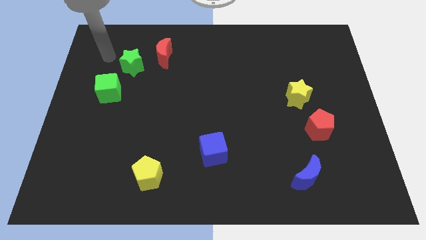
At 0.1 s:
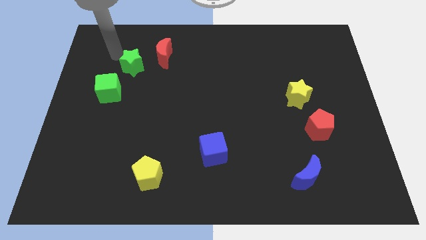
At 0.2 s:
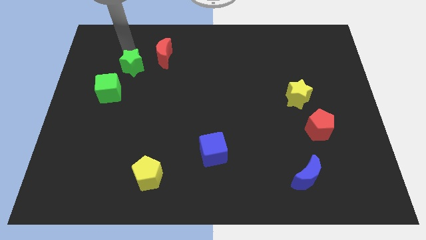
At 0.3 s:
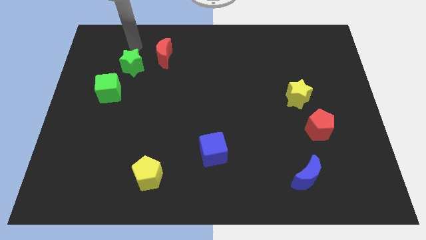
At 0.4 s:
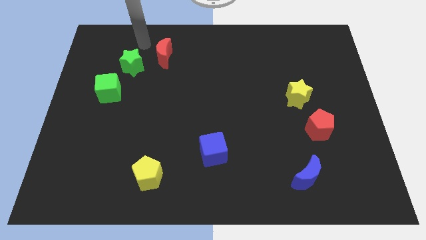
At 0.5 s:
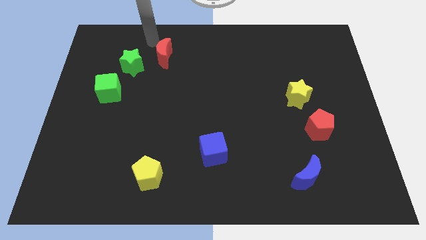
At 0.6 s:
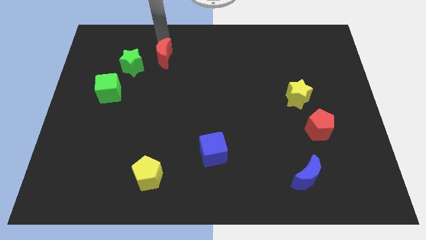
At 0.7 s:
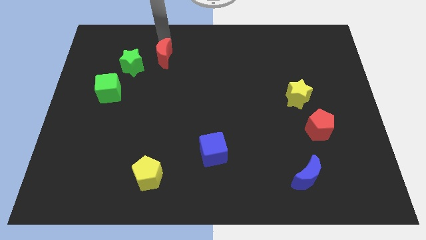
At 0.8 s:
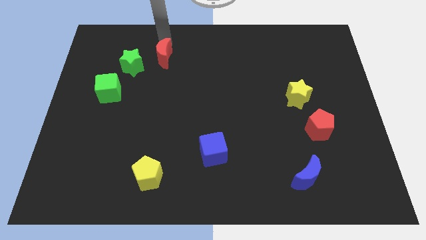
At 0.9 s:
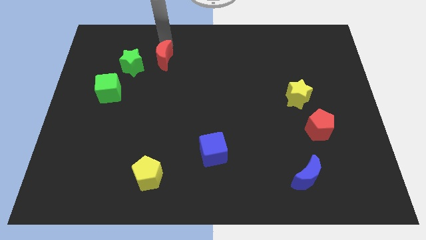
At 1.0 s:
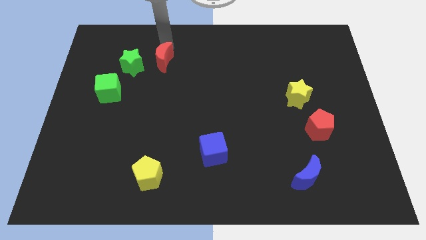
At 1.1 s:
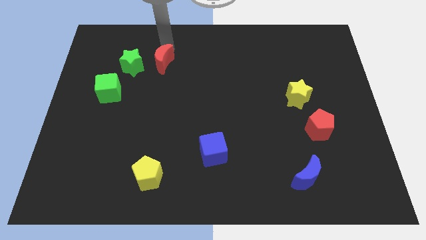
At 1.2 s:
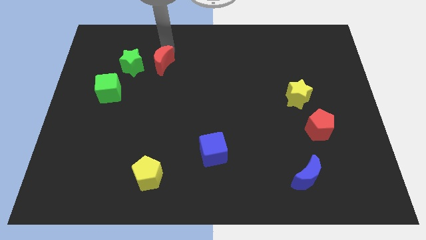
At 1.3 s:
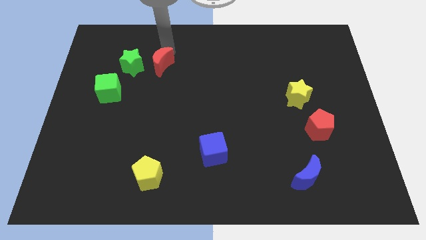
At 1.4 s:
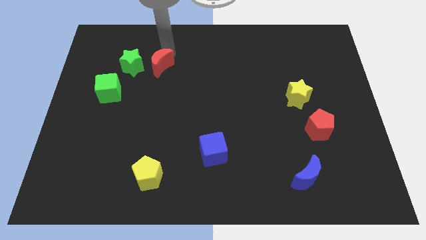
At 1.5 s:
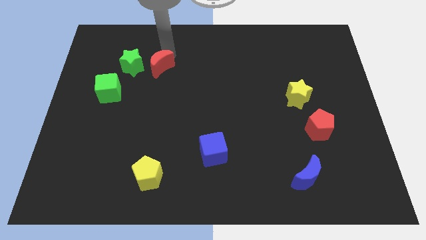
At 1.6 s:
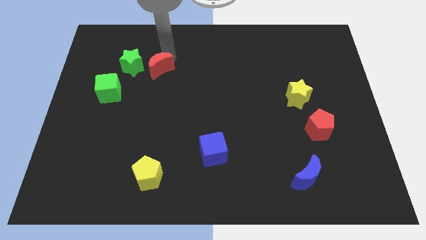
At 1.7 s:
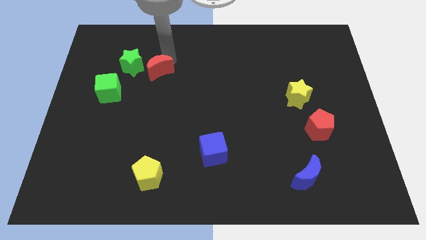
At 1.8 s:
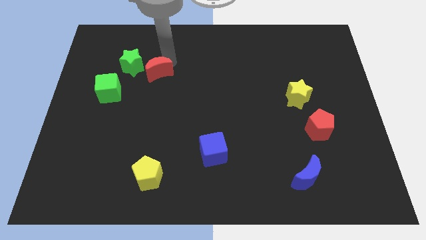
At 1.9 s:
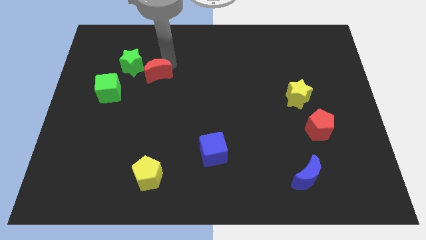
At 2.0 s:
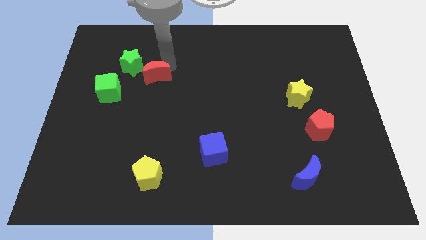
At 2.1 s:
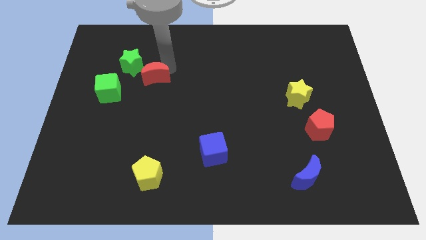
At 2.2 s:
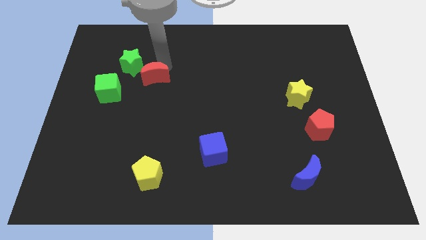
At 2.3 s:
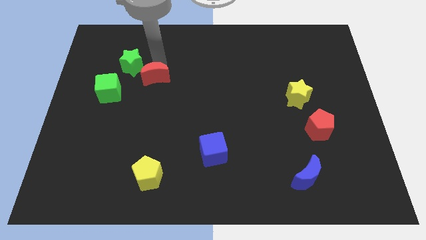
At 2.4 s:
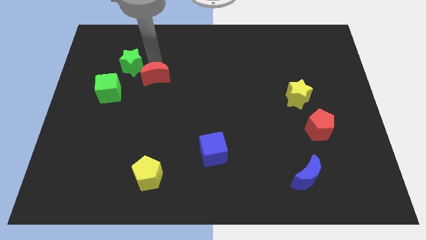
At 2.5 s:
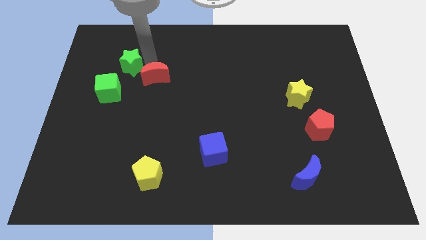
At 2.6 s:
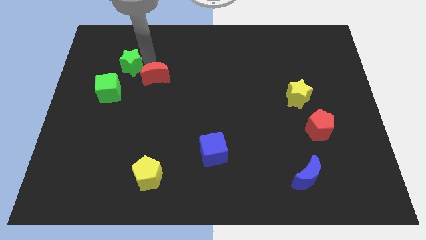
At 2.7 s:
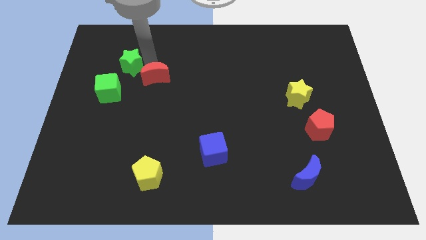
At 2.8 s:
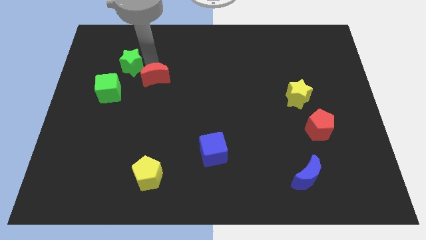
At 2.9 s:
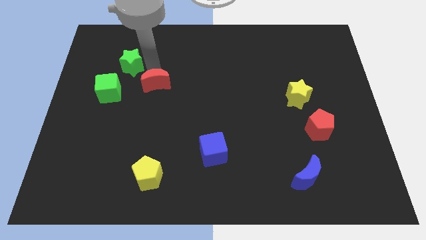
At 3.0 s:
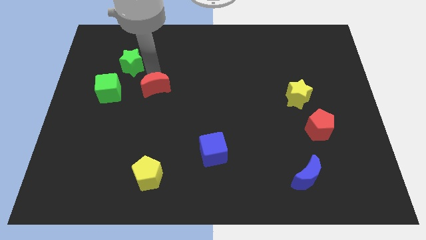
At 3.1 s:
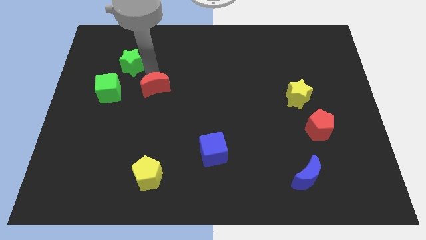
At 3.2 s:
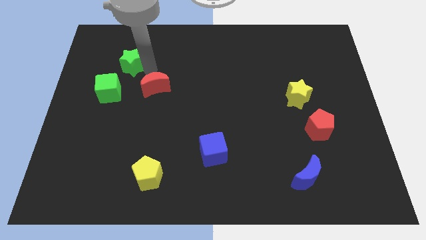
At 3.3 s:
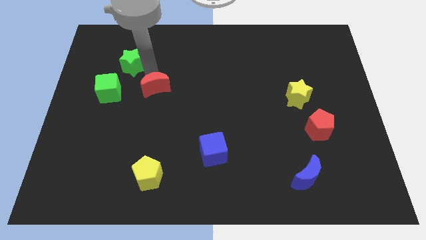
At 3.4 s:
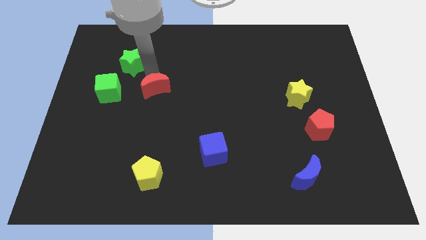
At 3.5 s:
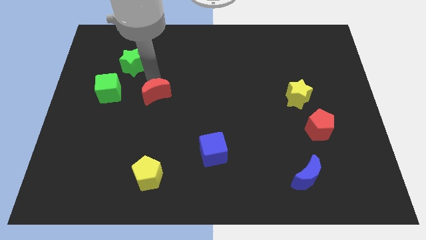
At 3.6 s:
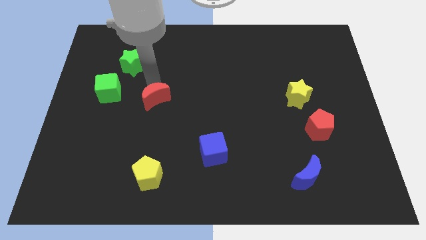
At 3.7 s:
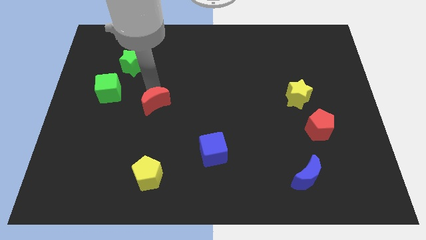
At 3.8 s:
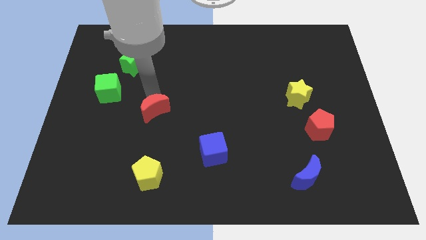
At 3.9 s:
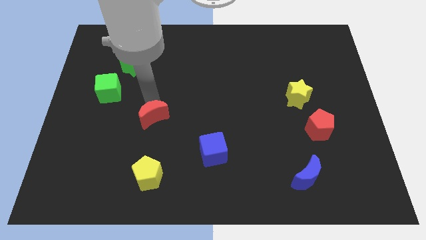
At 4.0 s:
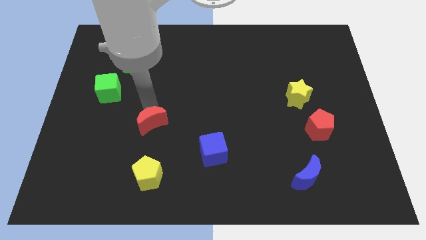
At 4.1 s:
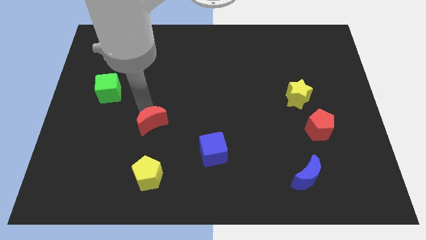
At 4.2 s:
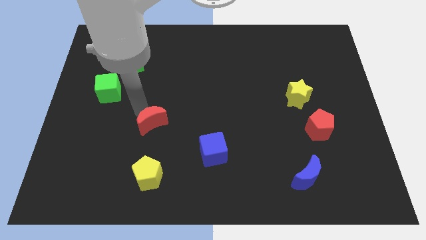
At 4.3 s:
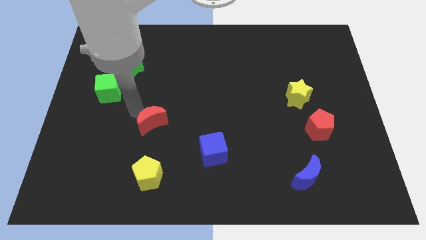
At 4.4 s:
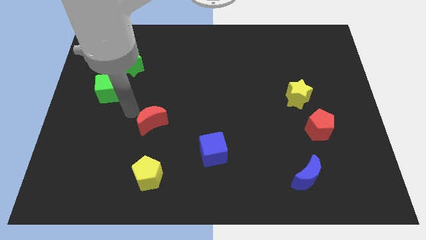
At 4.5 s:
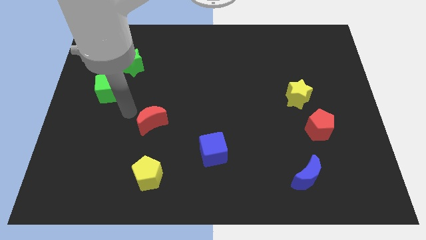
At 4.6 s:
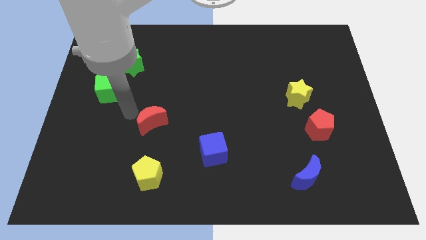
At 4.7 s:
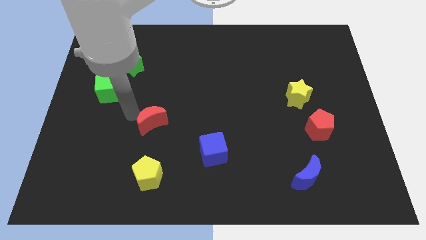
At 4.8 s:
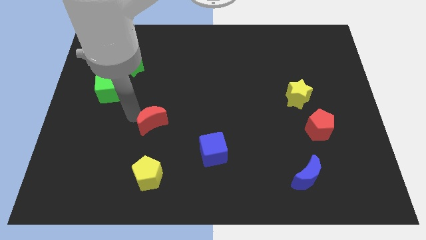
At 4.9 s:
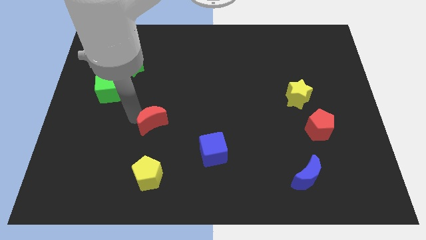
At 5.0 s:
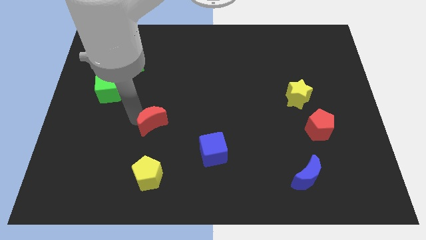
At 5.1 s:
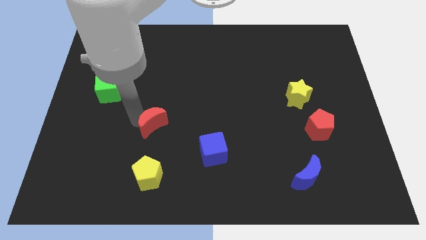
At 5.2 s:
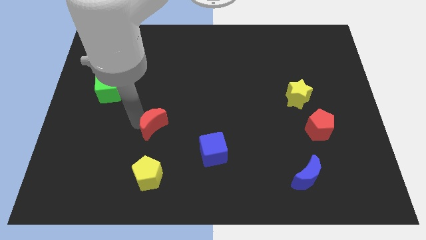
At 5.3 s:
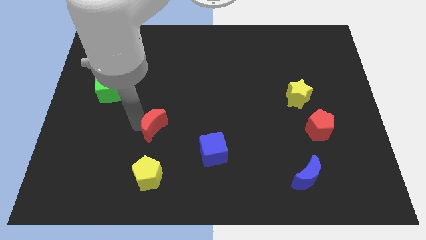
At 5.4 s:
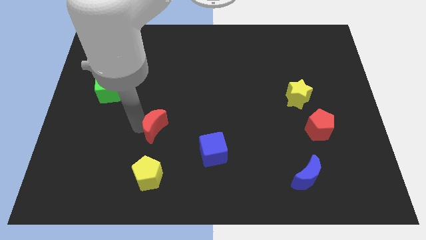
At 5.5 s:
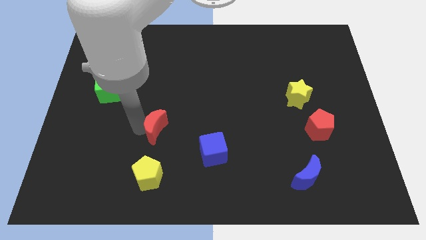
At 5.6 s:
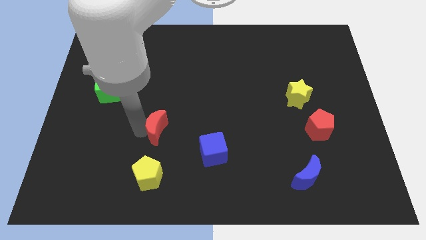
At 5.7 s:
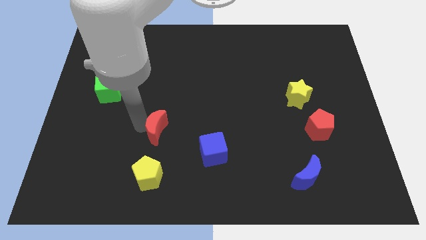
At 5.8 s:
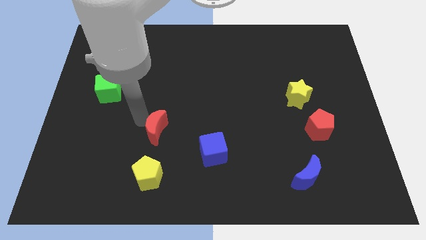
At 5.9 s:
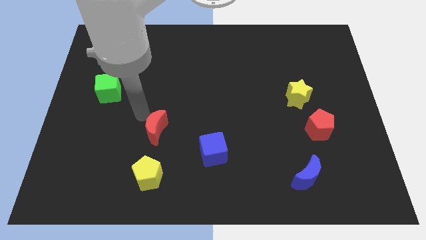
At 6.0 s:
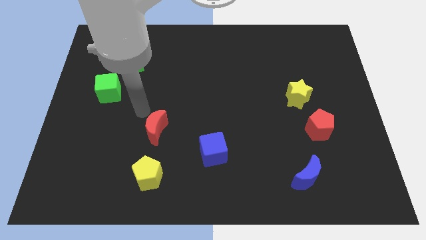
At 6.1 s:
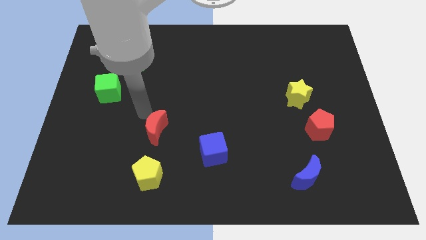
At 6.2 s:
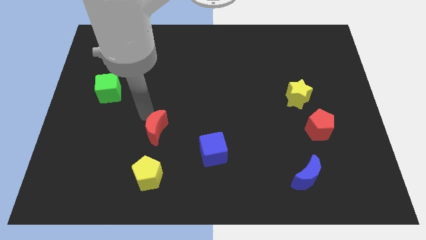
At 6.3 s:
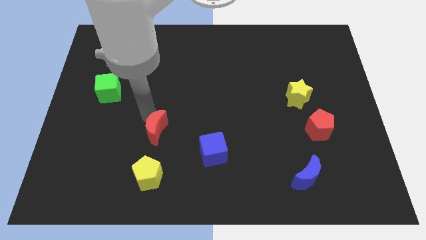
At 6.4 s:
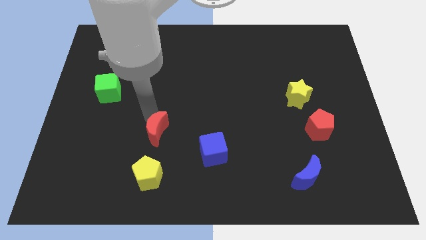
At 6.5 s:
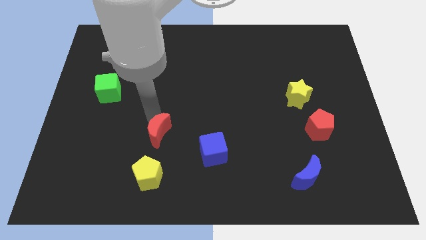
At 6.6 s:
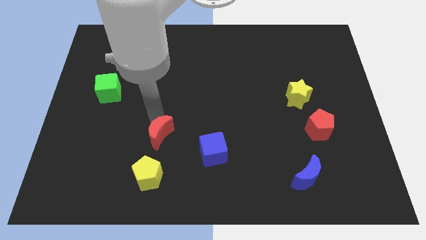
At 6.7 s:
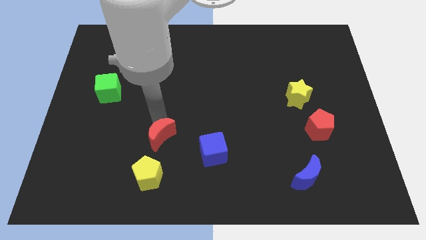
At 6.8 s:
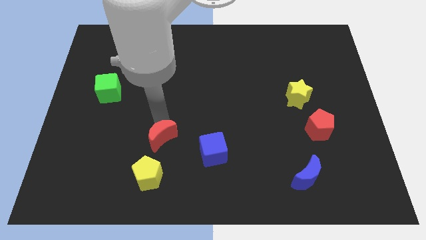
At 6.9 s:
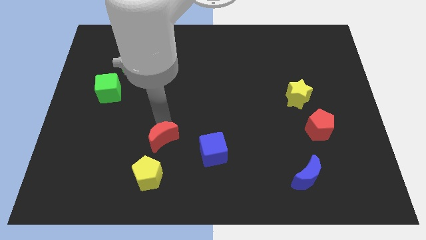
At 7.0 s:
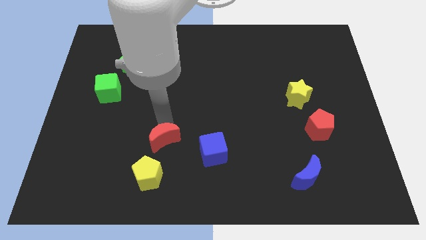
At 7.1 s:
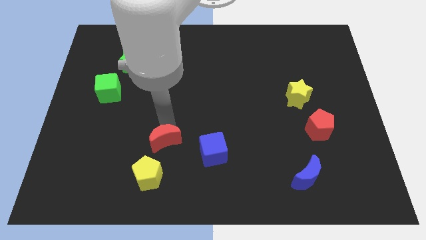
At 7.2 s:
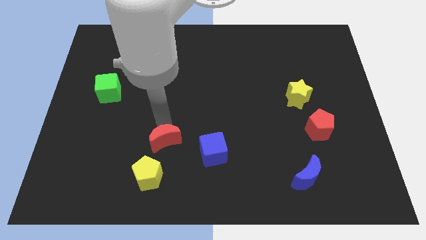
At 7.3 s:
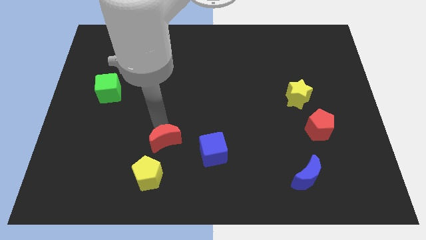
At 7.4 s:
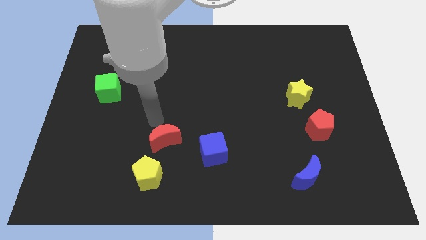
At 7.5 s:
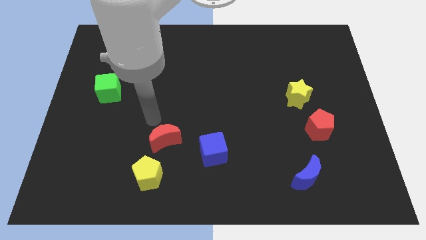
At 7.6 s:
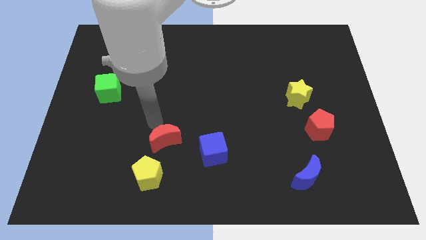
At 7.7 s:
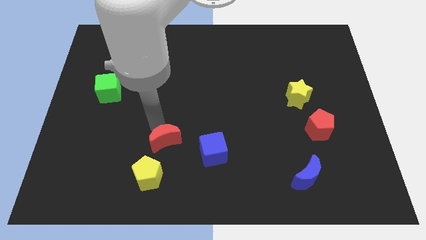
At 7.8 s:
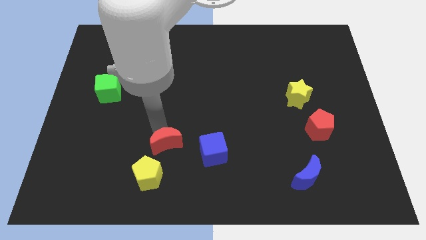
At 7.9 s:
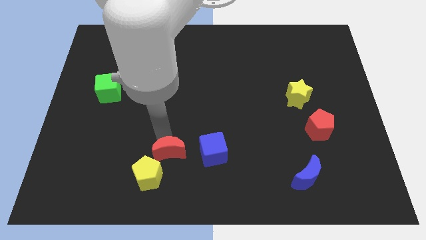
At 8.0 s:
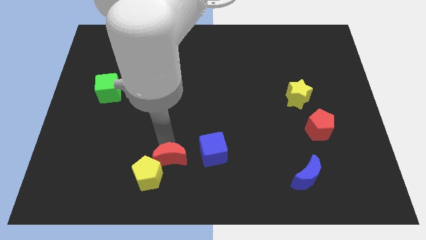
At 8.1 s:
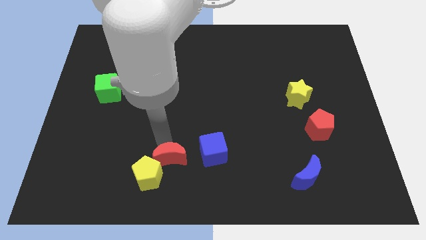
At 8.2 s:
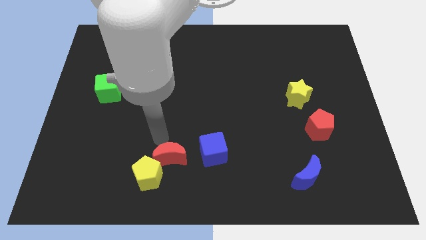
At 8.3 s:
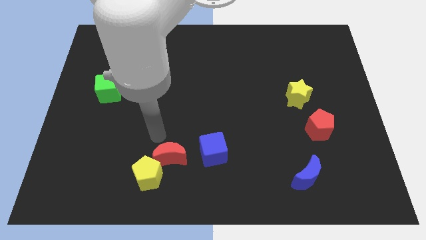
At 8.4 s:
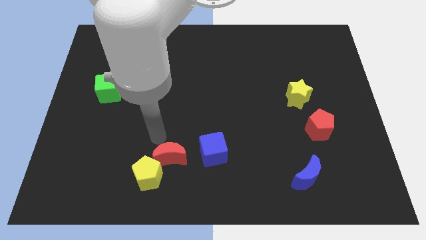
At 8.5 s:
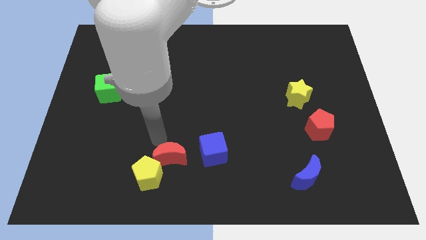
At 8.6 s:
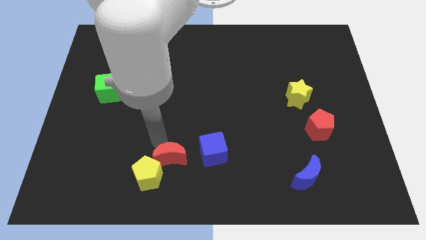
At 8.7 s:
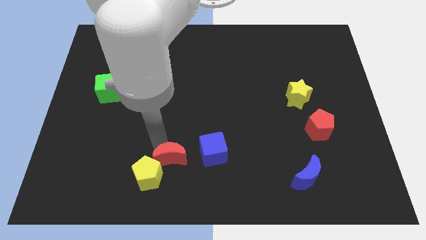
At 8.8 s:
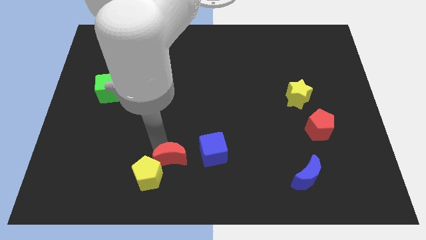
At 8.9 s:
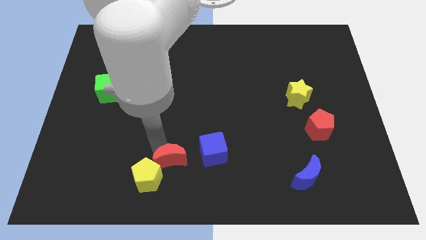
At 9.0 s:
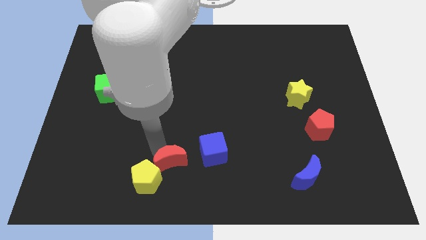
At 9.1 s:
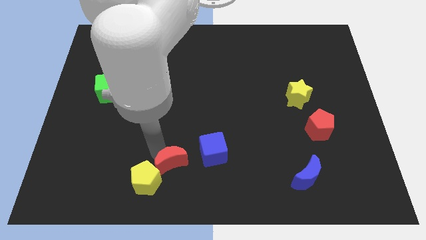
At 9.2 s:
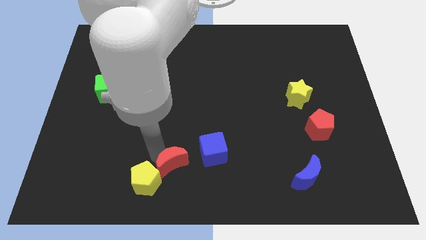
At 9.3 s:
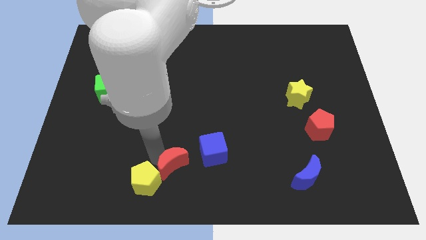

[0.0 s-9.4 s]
move the red moon to the bottom side
